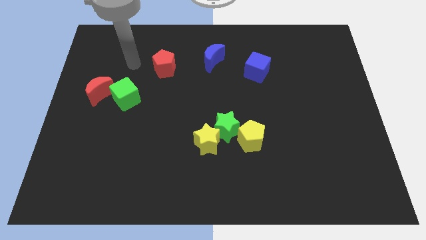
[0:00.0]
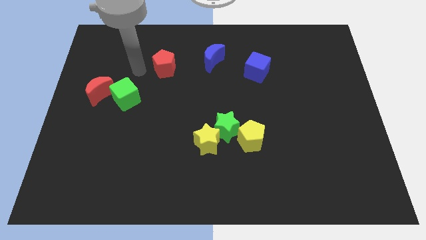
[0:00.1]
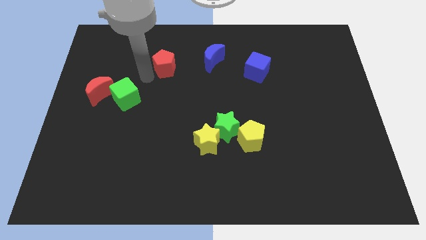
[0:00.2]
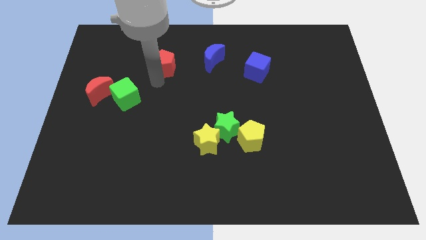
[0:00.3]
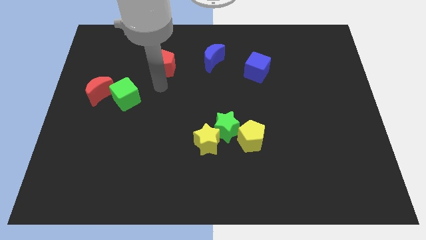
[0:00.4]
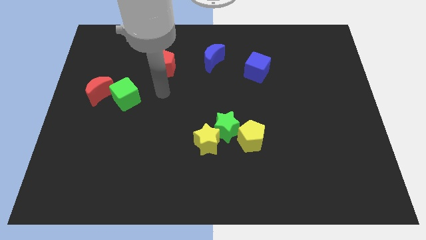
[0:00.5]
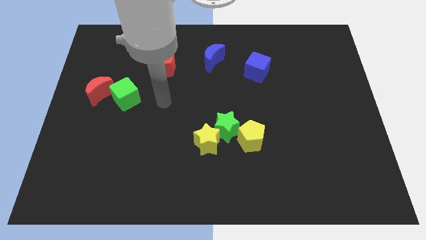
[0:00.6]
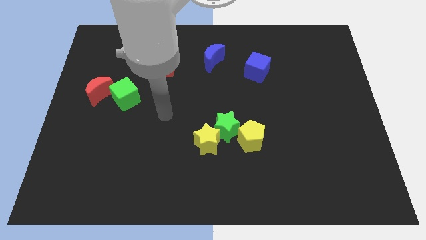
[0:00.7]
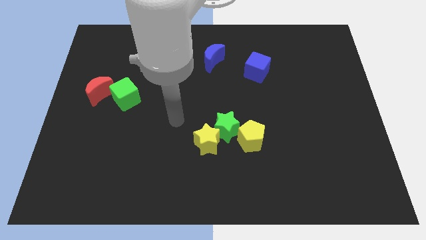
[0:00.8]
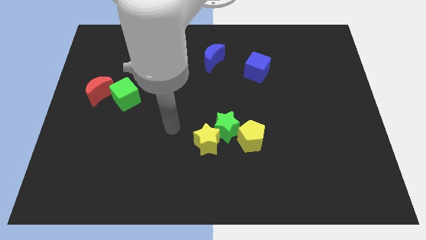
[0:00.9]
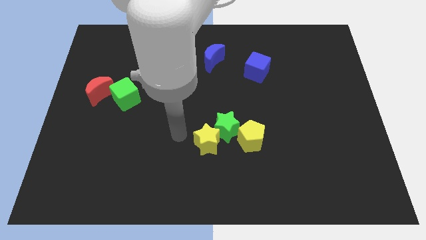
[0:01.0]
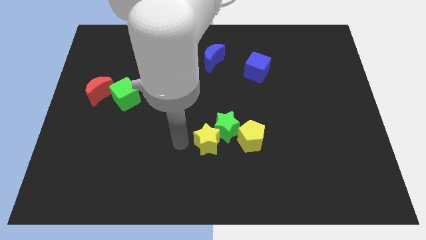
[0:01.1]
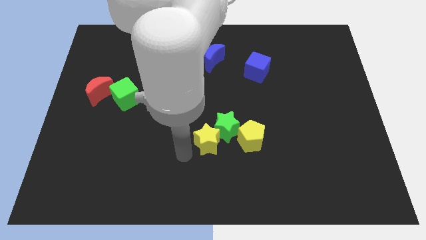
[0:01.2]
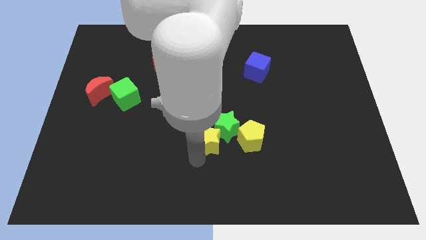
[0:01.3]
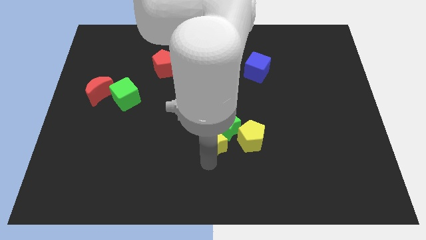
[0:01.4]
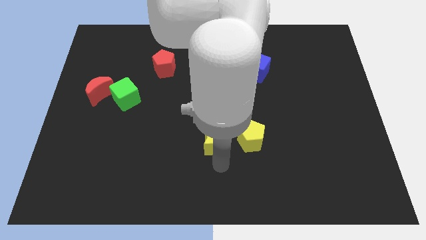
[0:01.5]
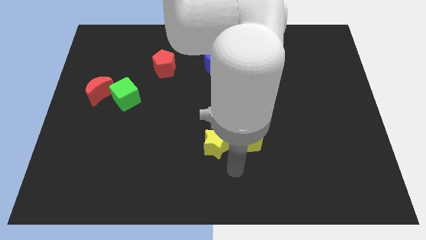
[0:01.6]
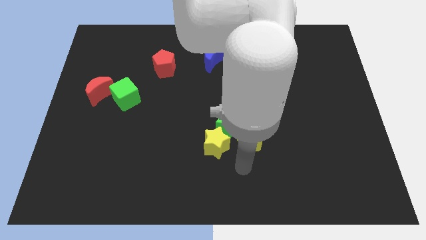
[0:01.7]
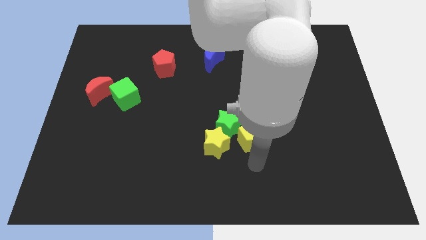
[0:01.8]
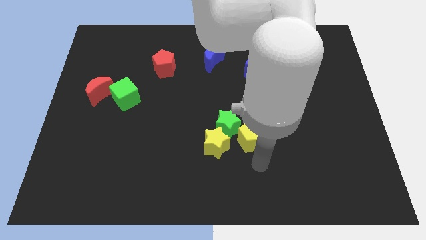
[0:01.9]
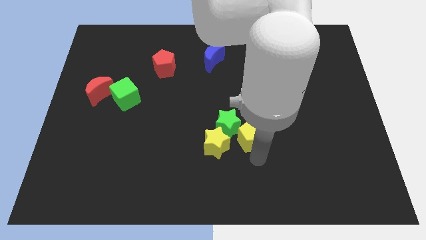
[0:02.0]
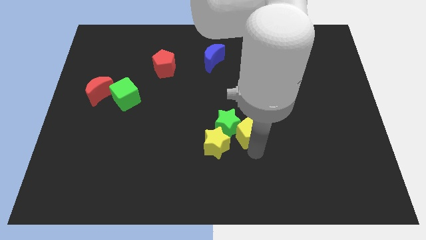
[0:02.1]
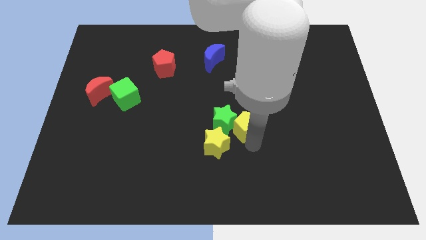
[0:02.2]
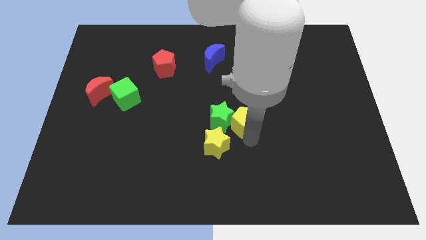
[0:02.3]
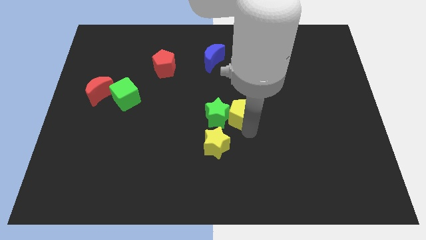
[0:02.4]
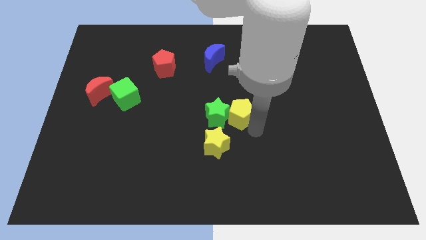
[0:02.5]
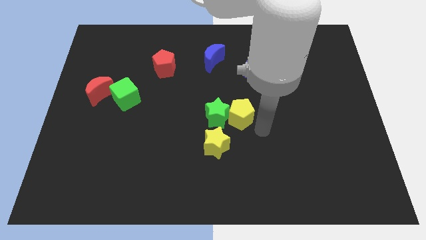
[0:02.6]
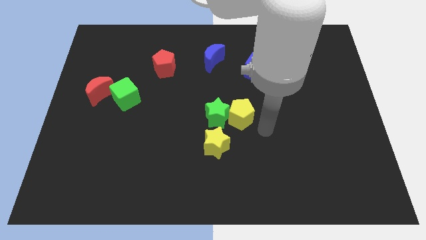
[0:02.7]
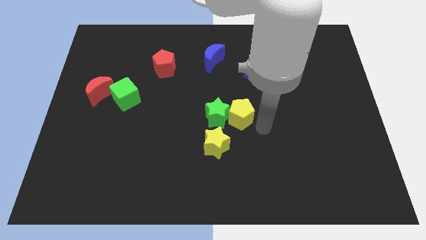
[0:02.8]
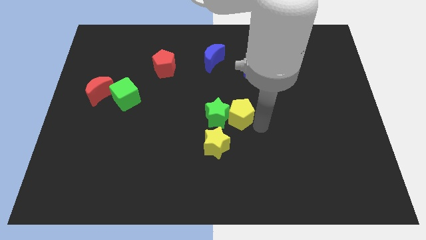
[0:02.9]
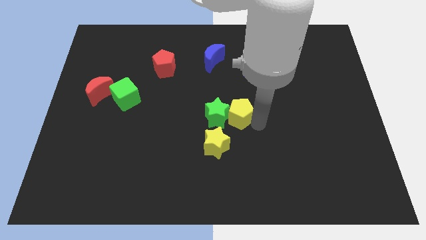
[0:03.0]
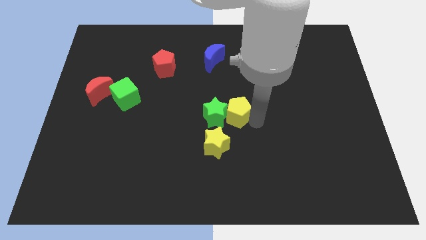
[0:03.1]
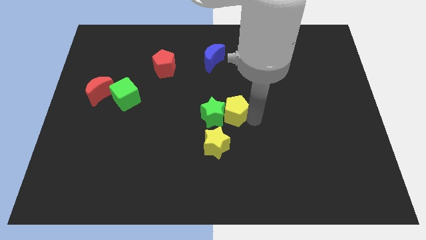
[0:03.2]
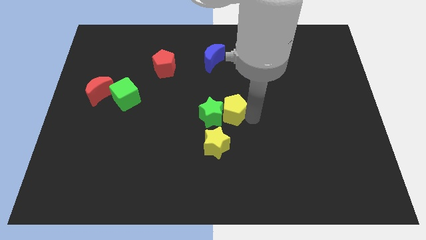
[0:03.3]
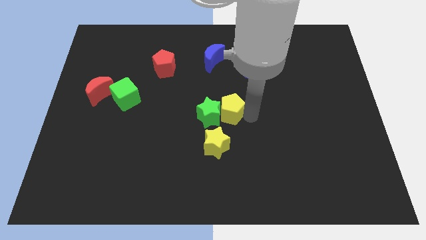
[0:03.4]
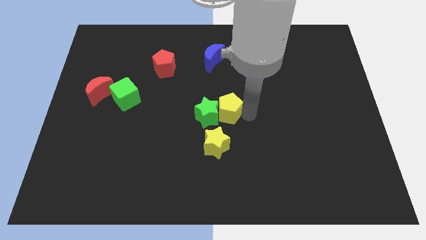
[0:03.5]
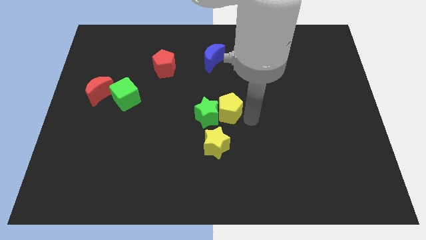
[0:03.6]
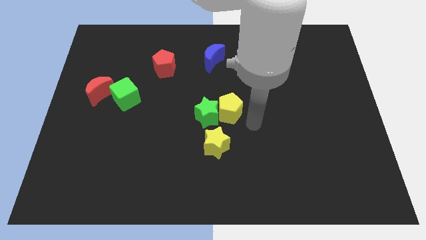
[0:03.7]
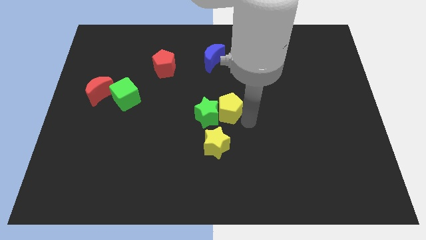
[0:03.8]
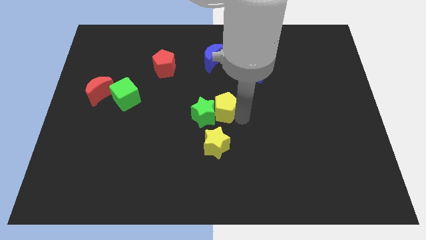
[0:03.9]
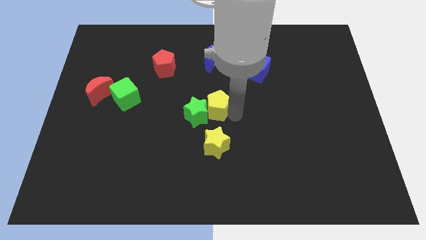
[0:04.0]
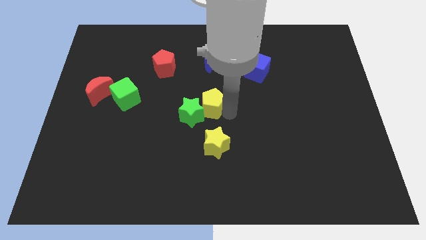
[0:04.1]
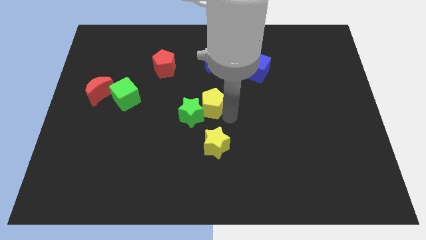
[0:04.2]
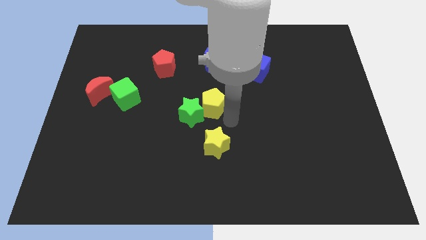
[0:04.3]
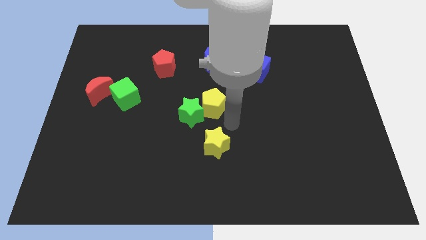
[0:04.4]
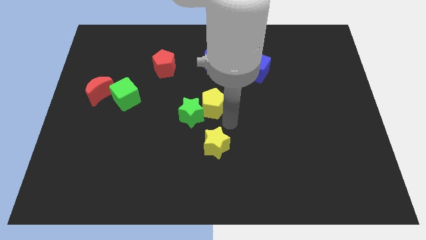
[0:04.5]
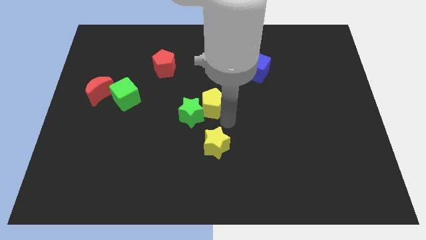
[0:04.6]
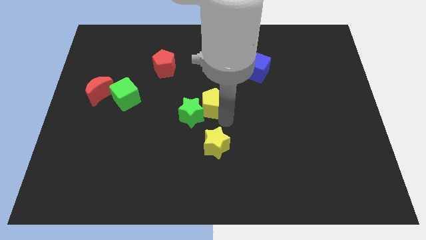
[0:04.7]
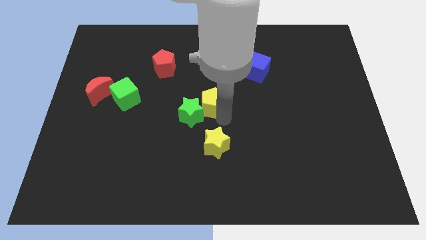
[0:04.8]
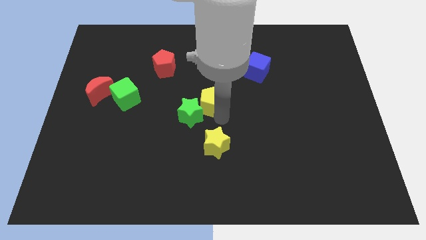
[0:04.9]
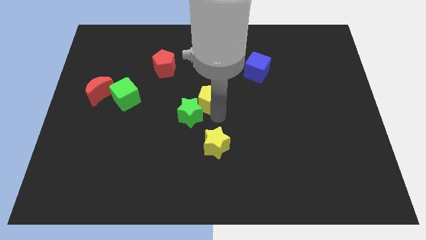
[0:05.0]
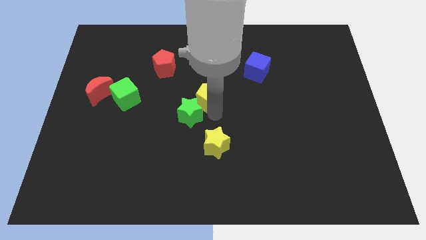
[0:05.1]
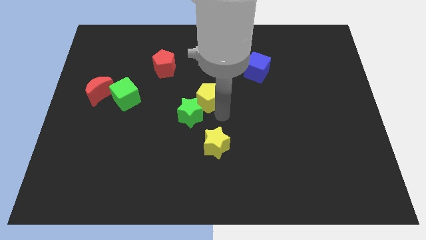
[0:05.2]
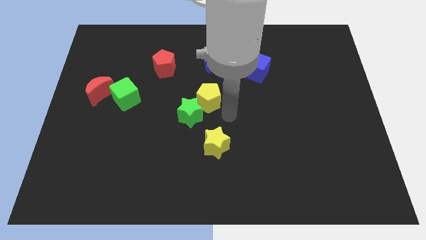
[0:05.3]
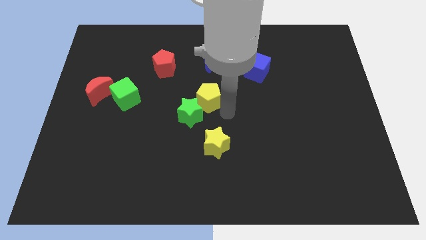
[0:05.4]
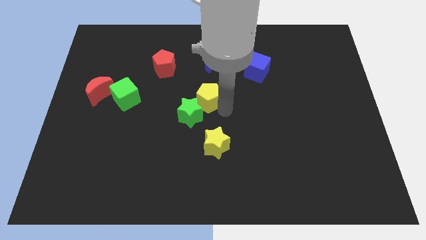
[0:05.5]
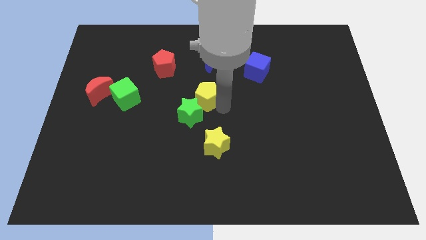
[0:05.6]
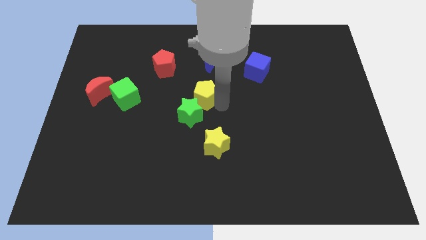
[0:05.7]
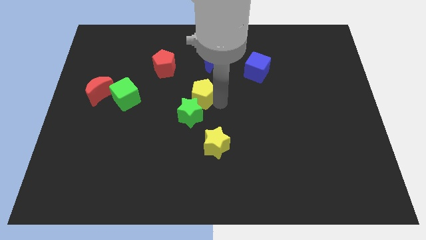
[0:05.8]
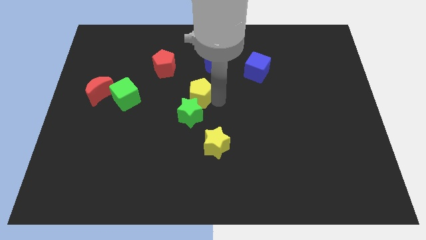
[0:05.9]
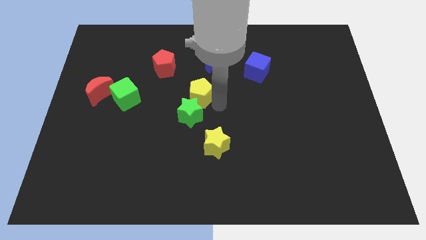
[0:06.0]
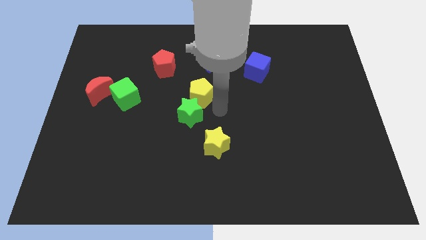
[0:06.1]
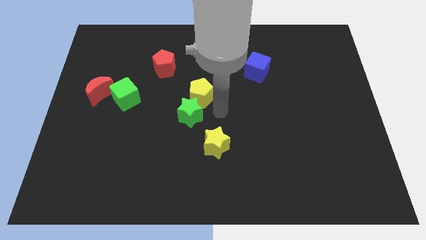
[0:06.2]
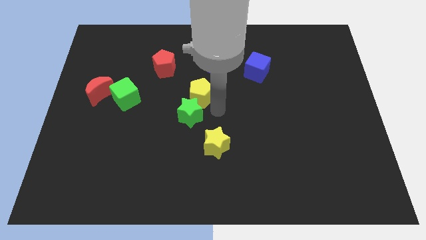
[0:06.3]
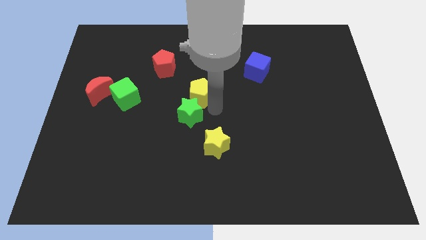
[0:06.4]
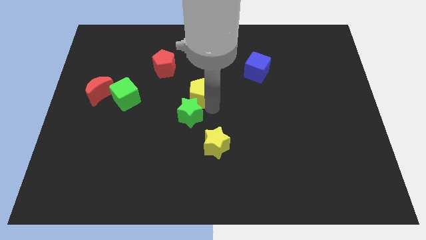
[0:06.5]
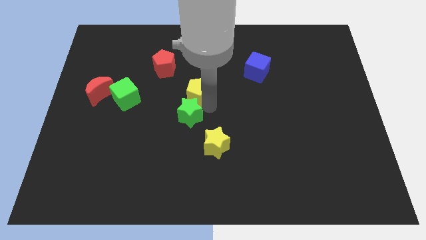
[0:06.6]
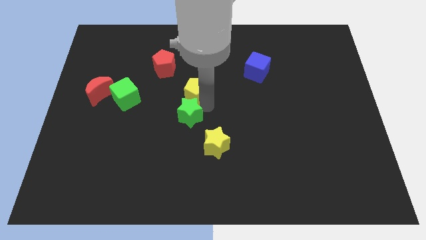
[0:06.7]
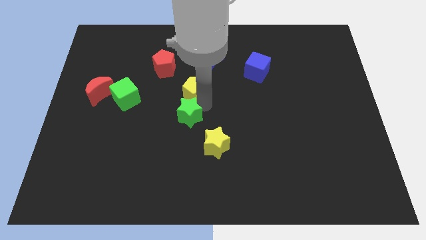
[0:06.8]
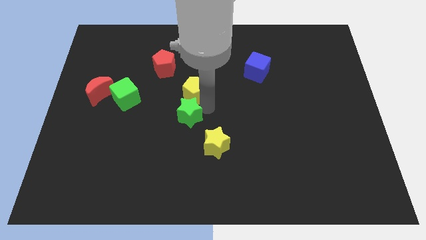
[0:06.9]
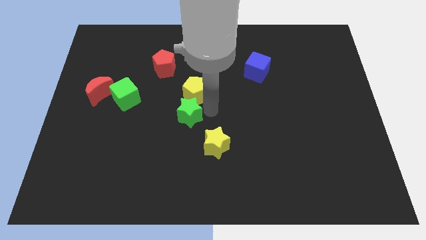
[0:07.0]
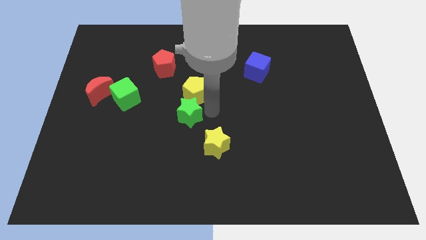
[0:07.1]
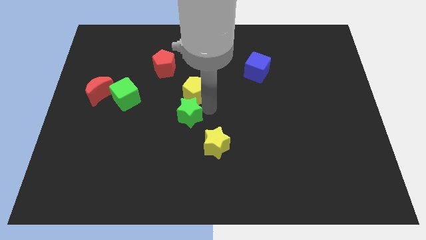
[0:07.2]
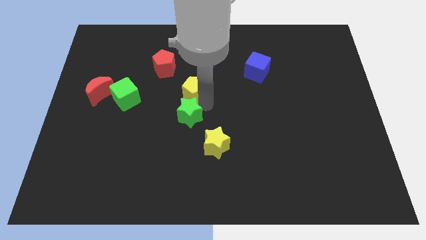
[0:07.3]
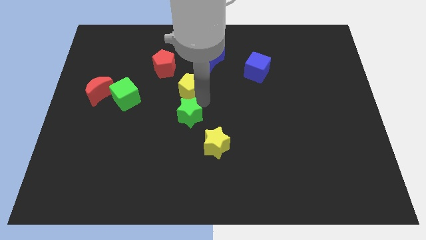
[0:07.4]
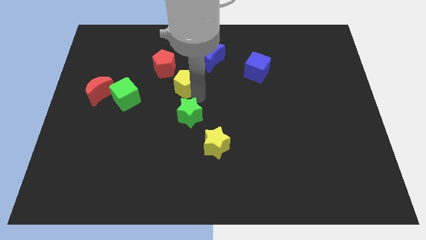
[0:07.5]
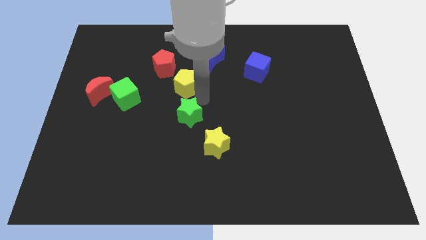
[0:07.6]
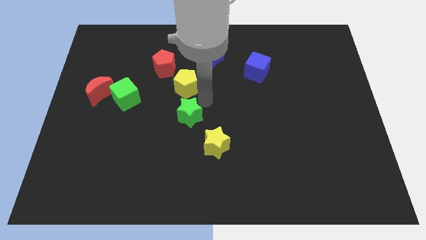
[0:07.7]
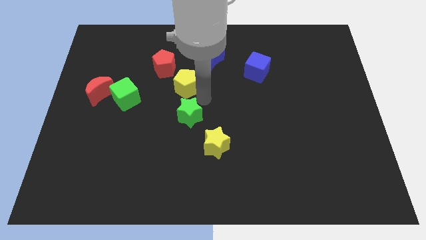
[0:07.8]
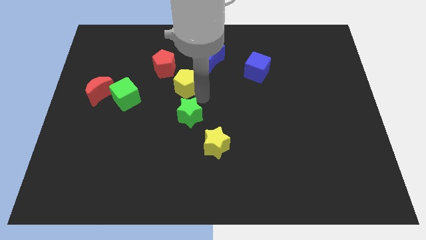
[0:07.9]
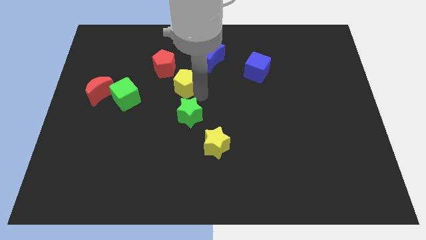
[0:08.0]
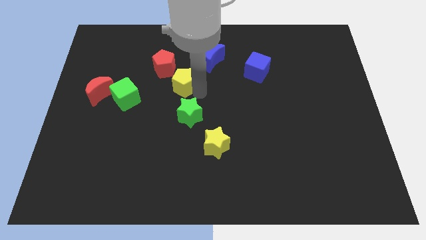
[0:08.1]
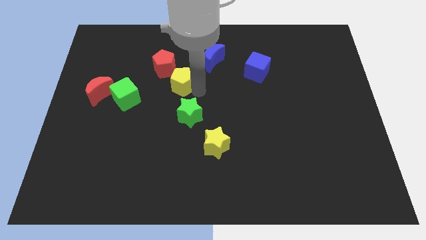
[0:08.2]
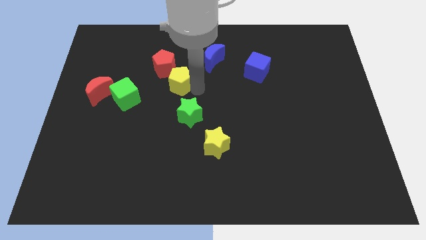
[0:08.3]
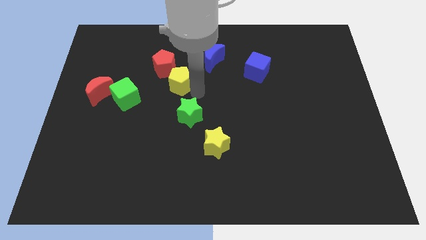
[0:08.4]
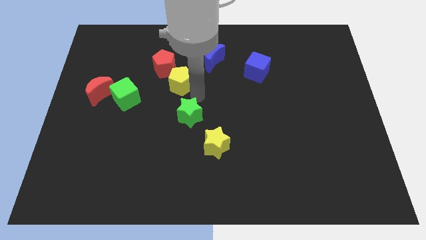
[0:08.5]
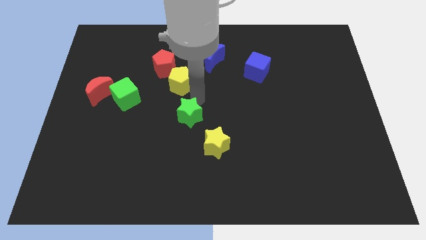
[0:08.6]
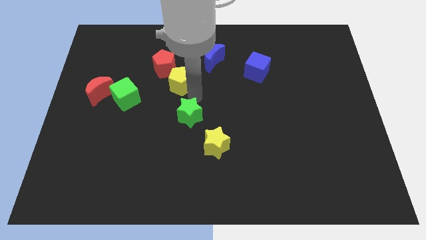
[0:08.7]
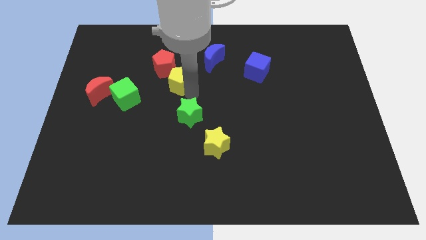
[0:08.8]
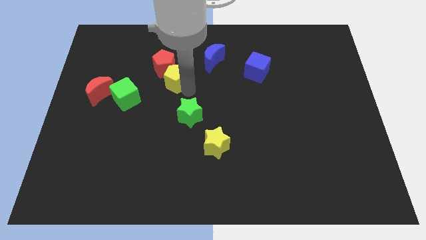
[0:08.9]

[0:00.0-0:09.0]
push the yellow pentagon towards the red pentagon
